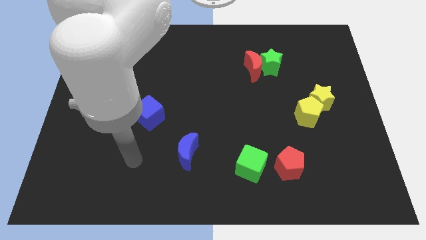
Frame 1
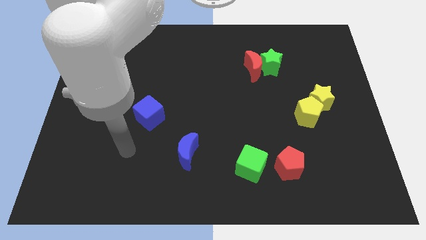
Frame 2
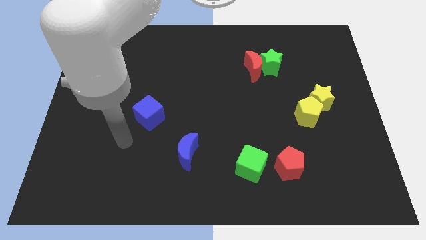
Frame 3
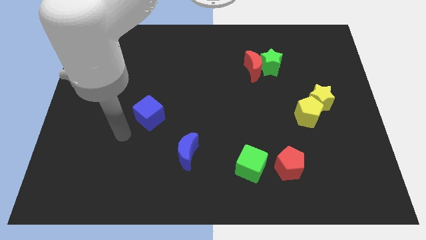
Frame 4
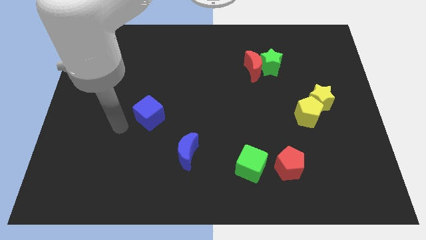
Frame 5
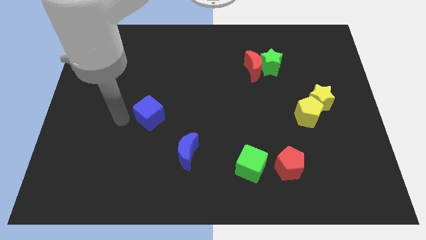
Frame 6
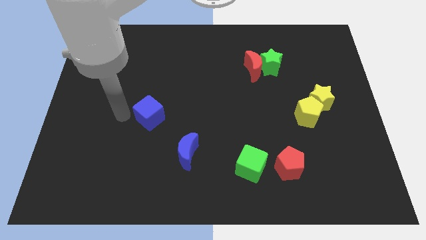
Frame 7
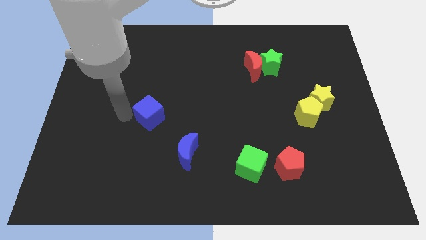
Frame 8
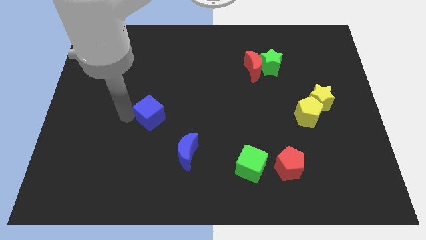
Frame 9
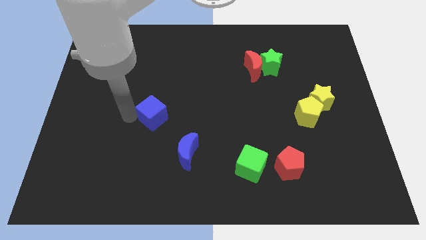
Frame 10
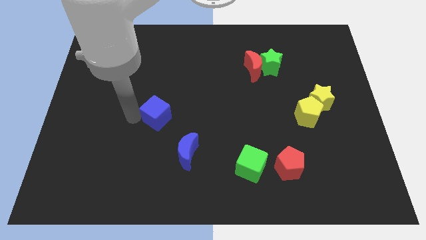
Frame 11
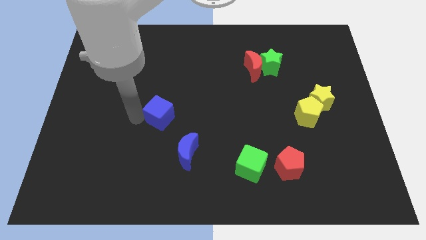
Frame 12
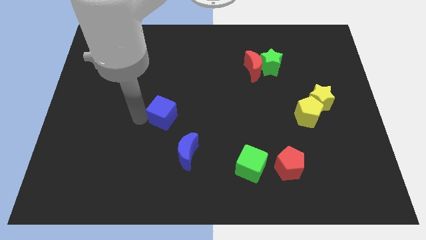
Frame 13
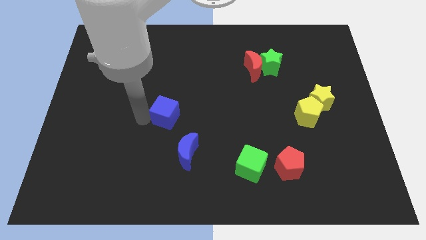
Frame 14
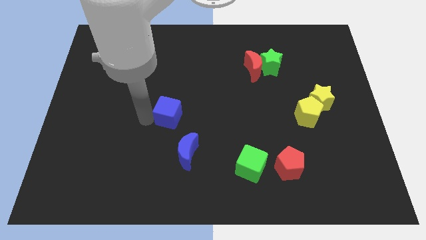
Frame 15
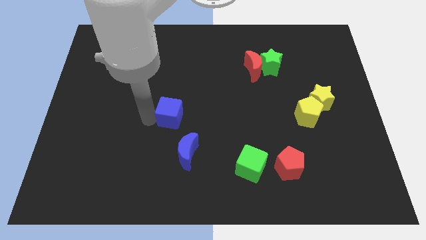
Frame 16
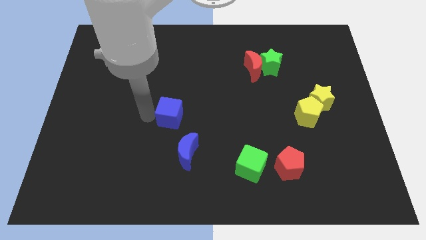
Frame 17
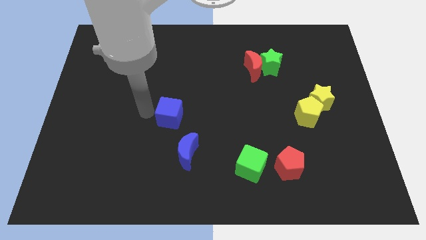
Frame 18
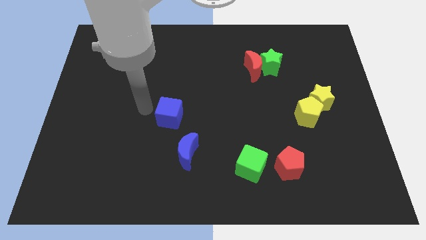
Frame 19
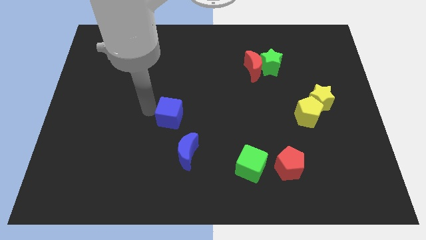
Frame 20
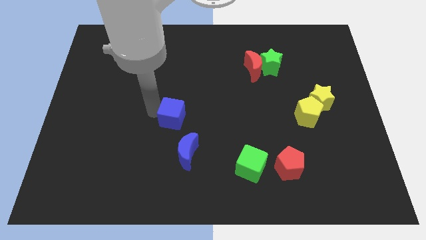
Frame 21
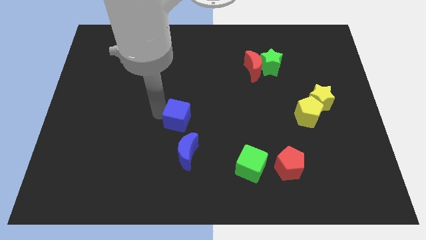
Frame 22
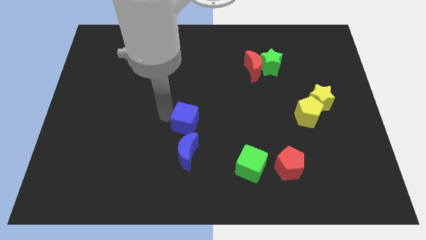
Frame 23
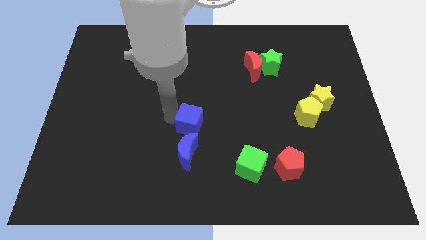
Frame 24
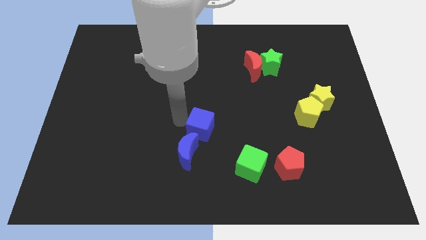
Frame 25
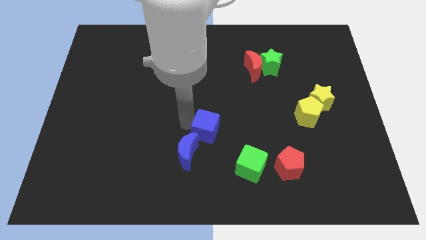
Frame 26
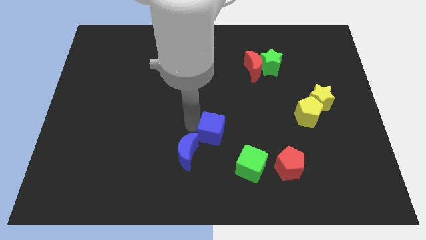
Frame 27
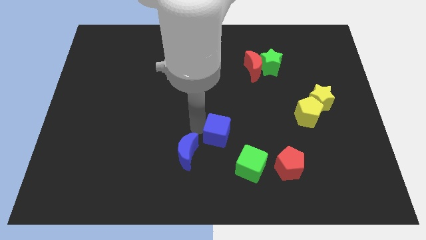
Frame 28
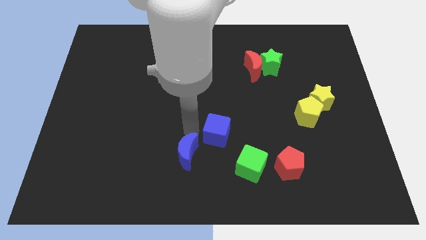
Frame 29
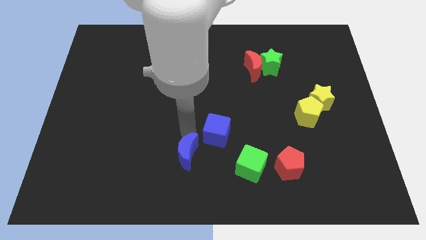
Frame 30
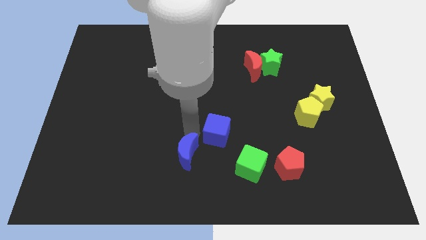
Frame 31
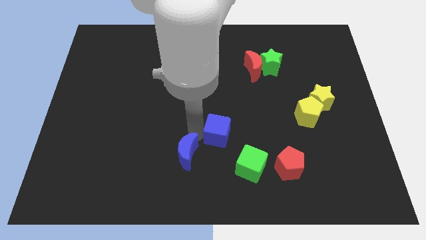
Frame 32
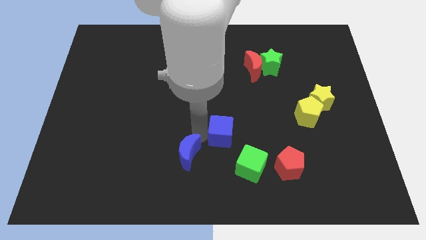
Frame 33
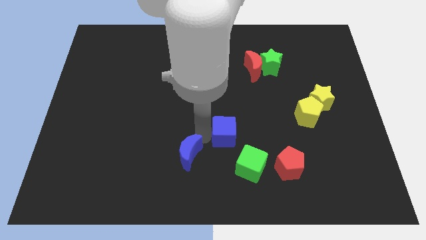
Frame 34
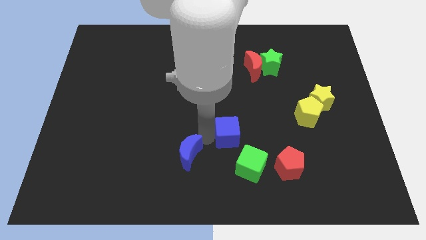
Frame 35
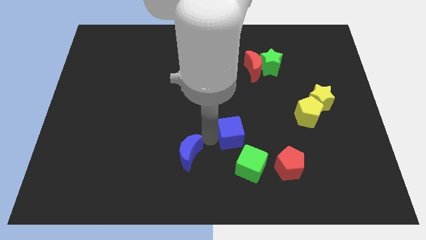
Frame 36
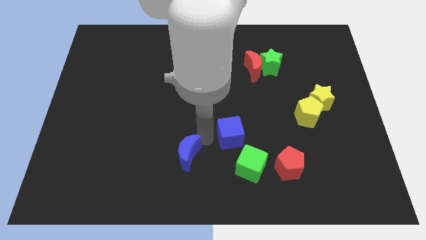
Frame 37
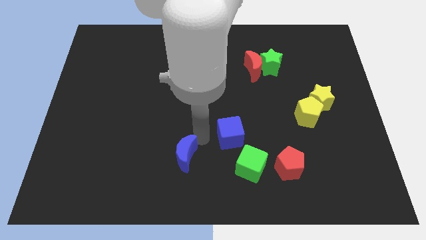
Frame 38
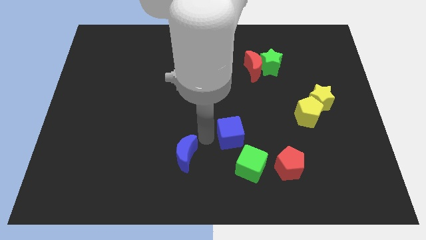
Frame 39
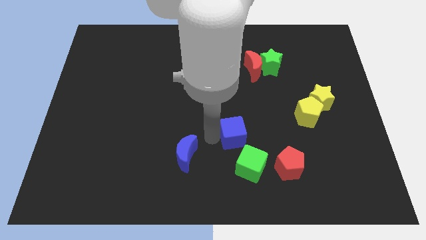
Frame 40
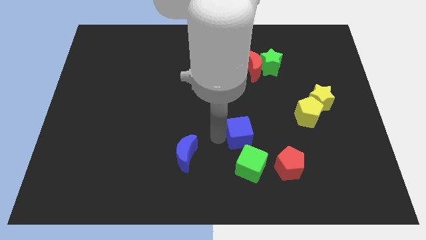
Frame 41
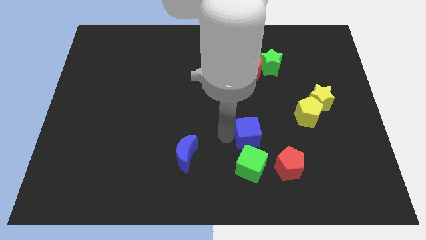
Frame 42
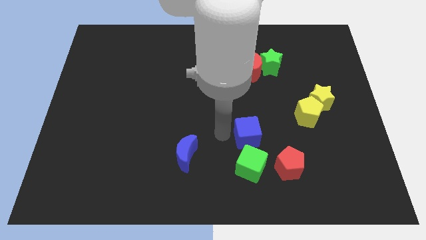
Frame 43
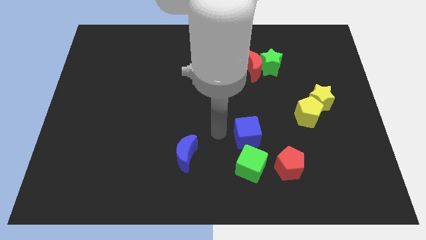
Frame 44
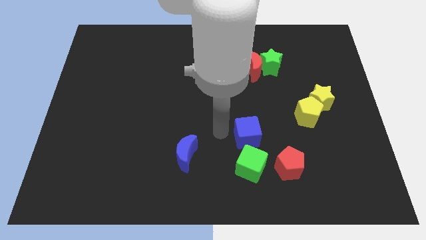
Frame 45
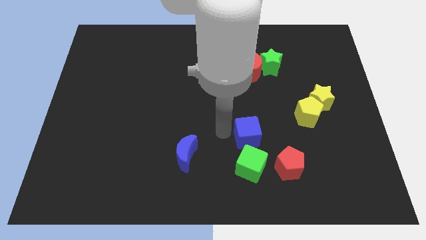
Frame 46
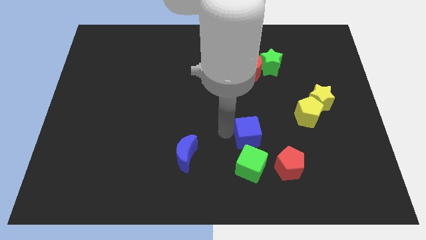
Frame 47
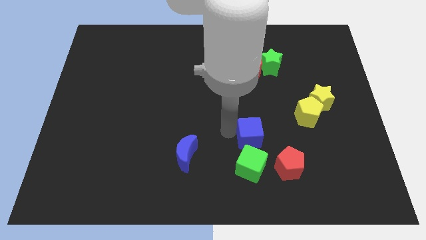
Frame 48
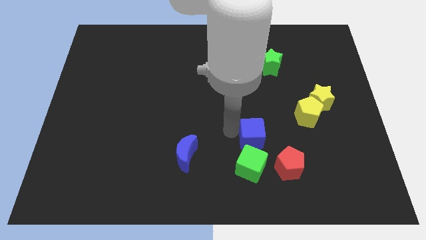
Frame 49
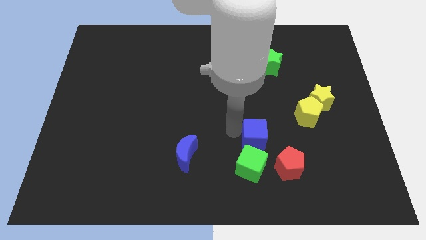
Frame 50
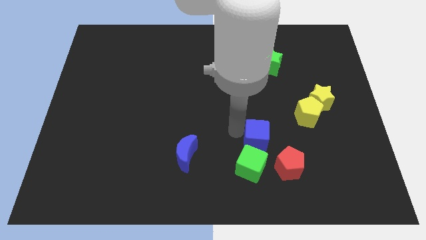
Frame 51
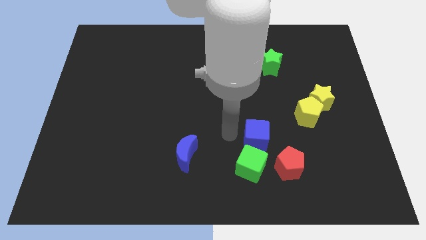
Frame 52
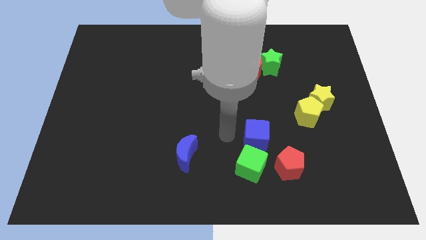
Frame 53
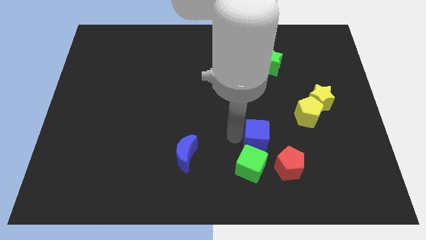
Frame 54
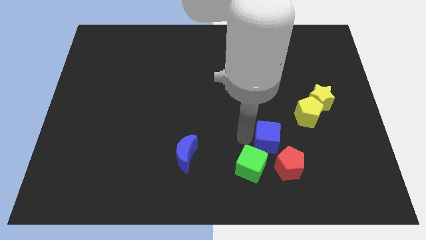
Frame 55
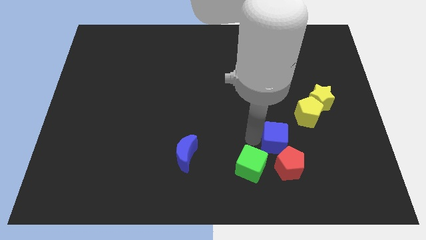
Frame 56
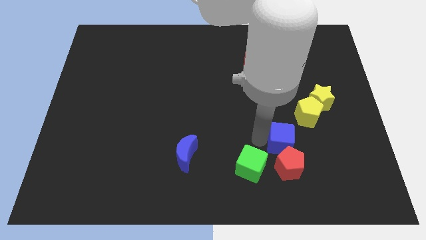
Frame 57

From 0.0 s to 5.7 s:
slide the blue cube to the top right side of the red pentagon

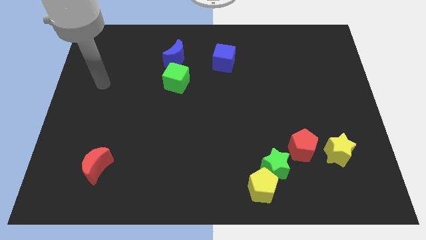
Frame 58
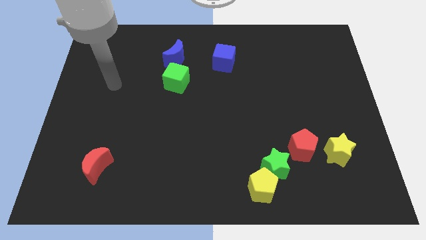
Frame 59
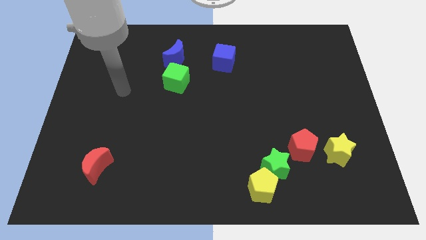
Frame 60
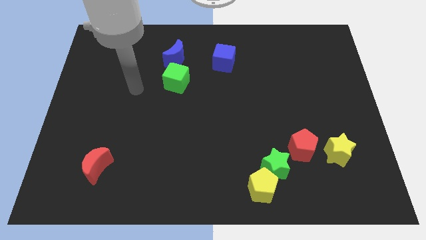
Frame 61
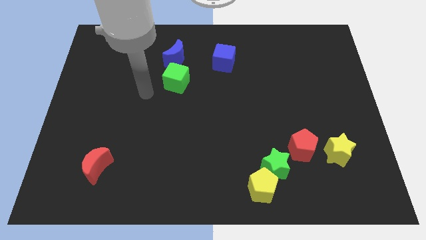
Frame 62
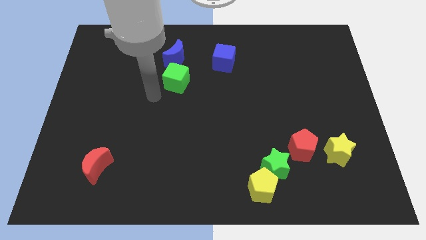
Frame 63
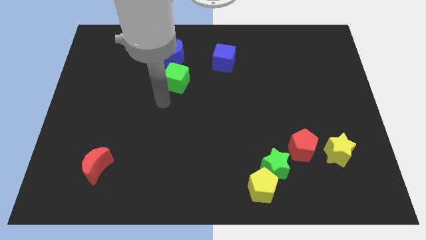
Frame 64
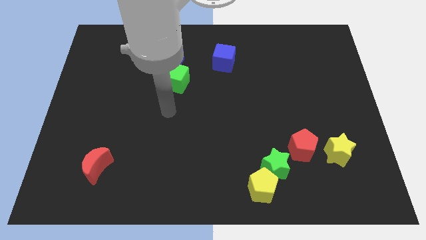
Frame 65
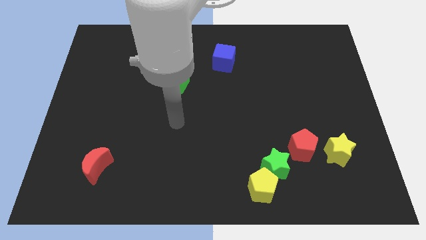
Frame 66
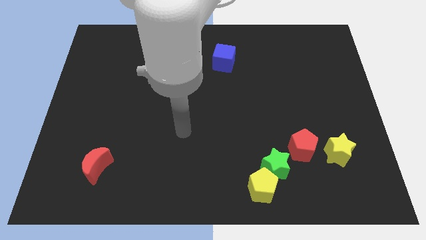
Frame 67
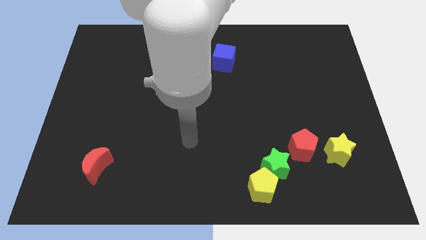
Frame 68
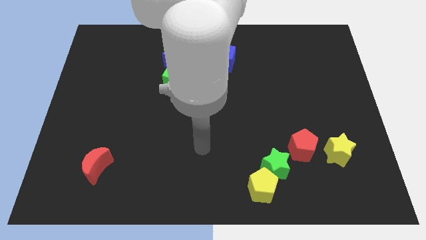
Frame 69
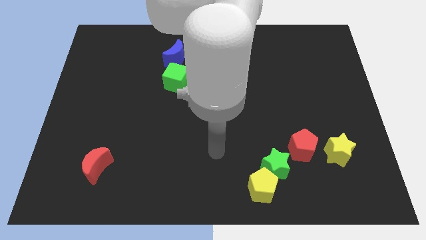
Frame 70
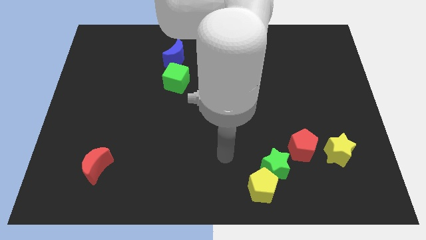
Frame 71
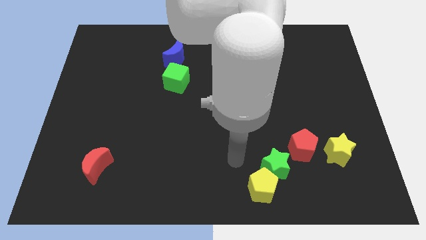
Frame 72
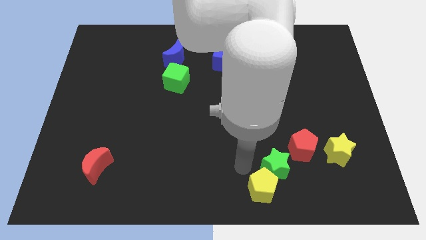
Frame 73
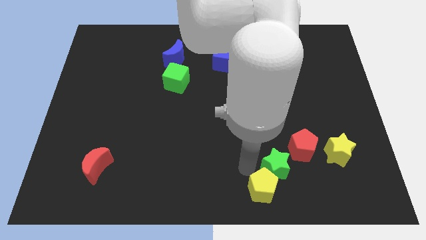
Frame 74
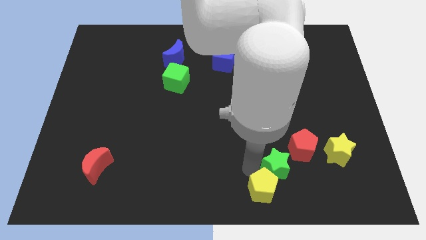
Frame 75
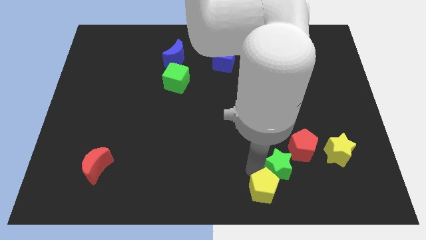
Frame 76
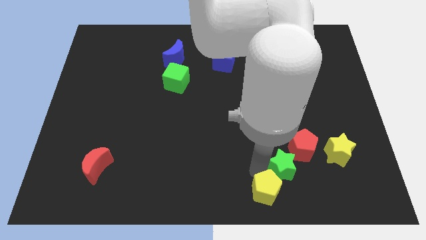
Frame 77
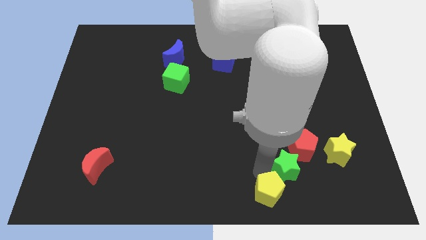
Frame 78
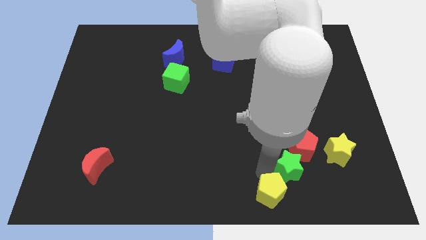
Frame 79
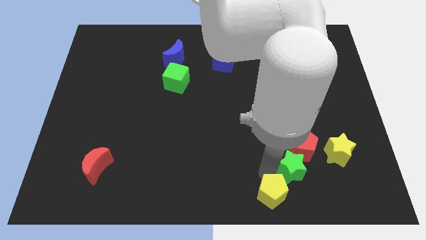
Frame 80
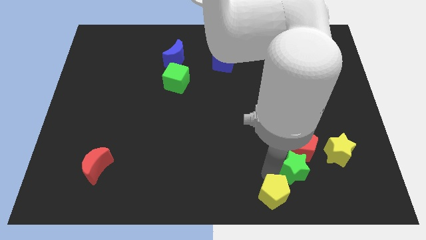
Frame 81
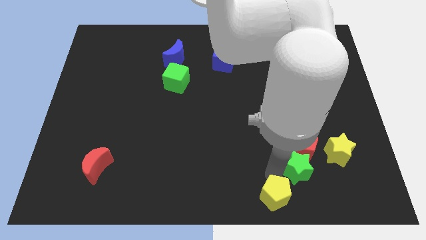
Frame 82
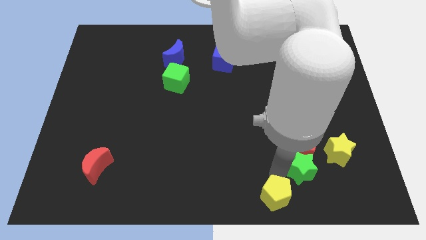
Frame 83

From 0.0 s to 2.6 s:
put the green star to the bottom right side of the red pentagon
